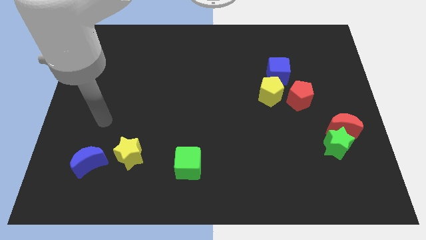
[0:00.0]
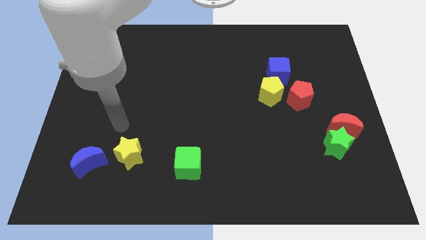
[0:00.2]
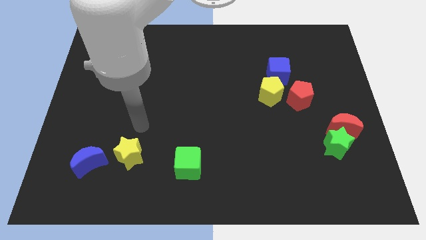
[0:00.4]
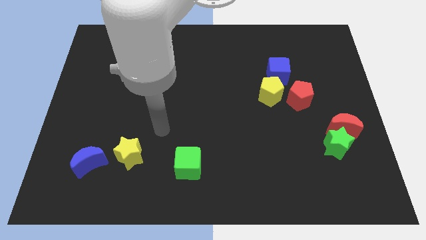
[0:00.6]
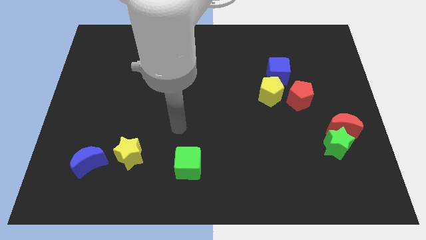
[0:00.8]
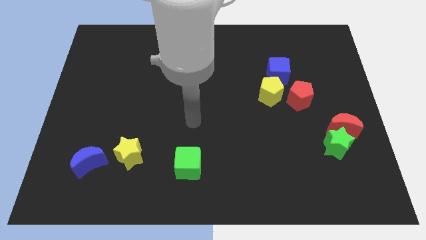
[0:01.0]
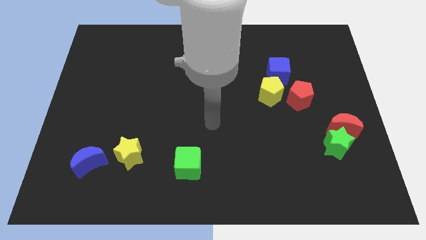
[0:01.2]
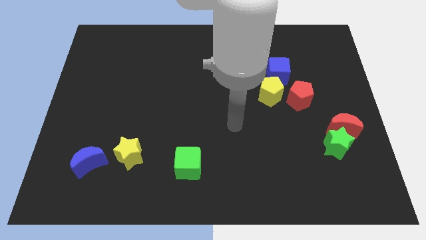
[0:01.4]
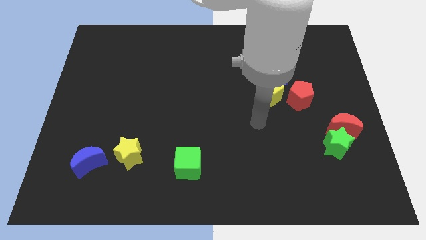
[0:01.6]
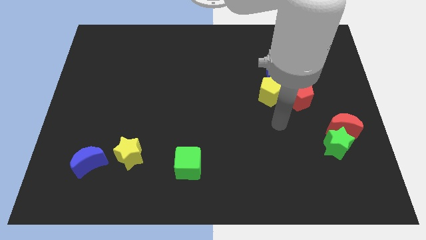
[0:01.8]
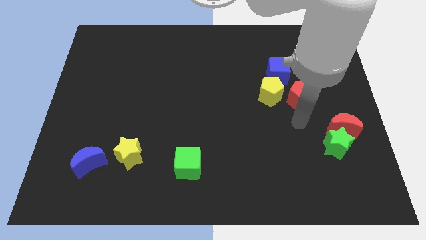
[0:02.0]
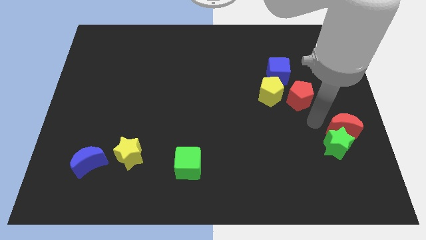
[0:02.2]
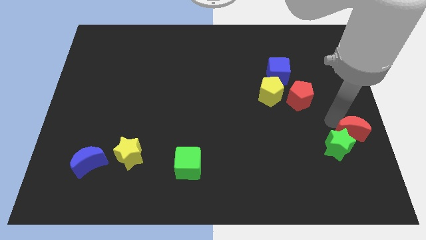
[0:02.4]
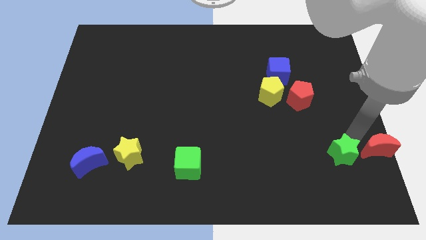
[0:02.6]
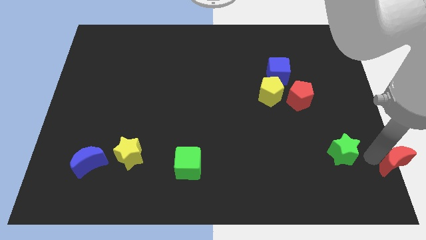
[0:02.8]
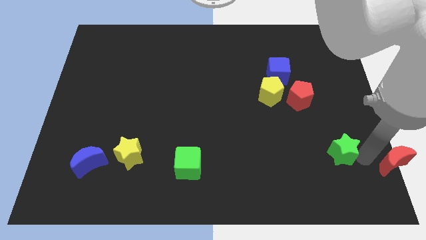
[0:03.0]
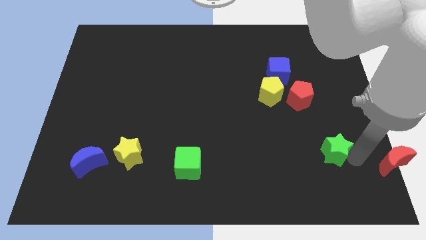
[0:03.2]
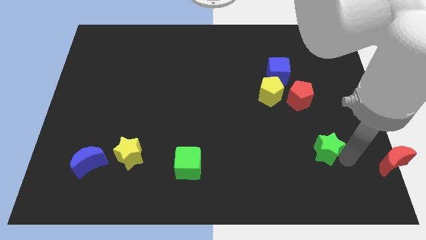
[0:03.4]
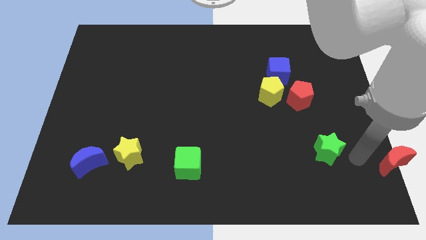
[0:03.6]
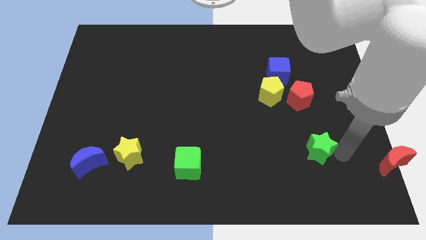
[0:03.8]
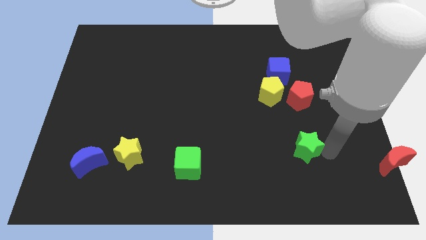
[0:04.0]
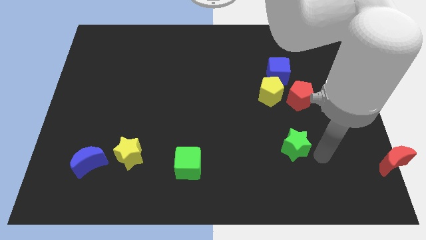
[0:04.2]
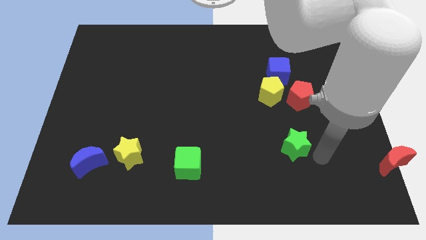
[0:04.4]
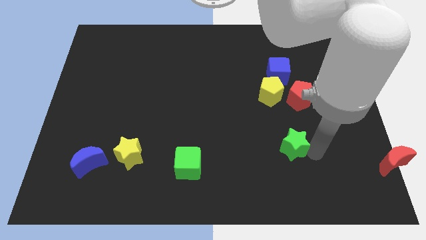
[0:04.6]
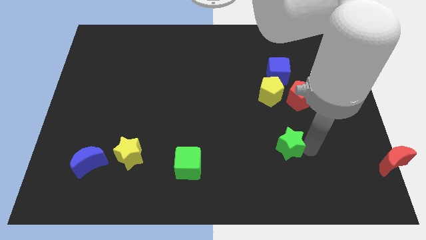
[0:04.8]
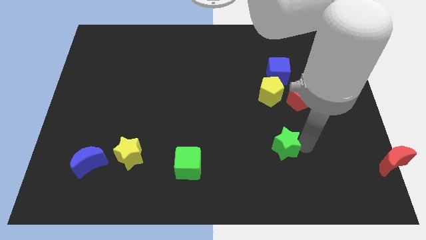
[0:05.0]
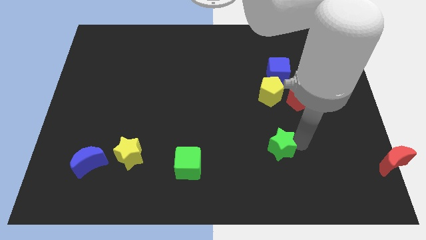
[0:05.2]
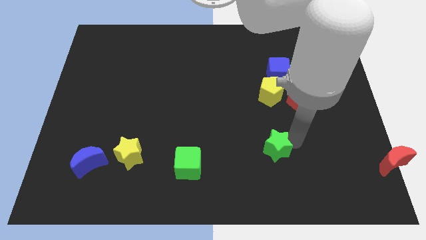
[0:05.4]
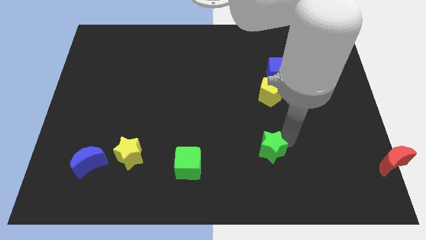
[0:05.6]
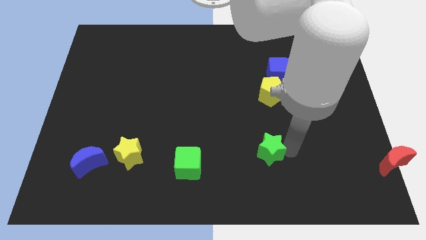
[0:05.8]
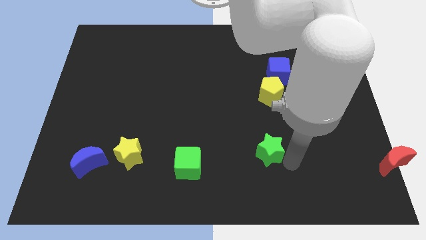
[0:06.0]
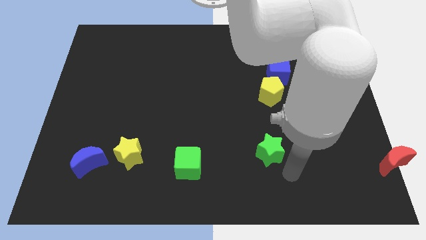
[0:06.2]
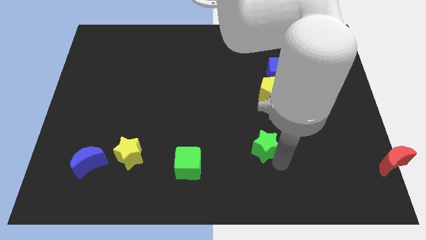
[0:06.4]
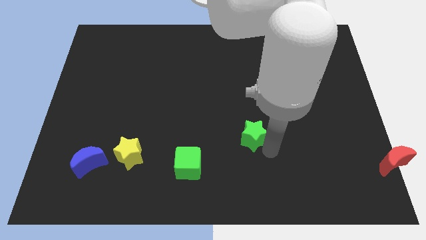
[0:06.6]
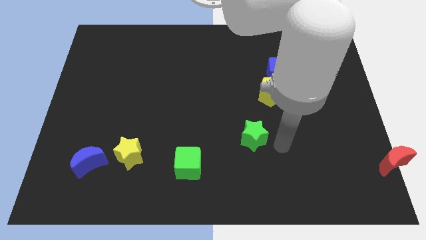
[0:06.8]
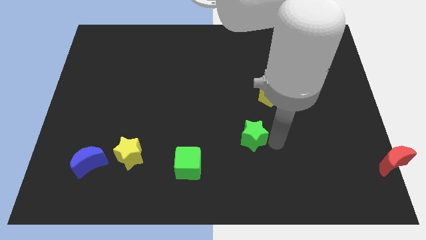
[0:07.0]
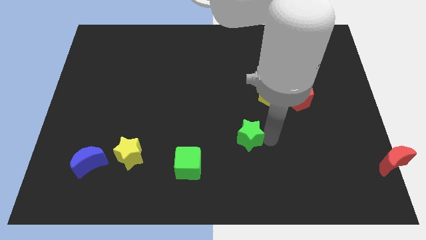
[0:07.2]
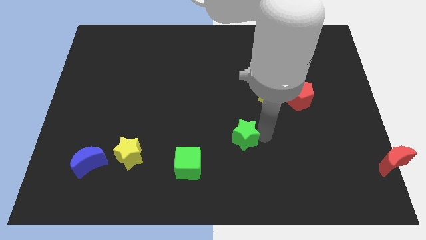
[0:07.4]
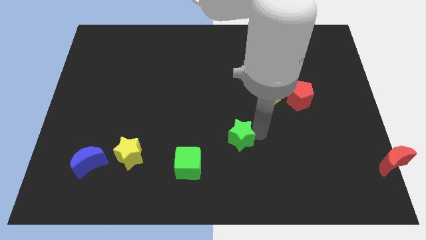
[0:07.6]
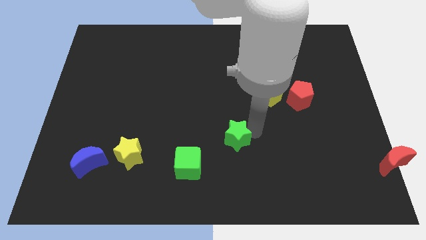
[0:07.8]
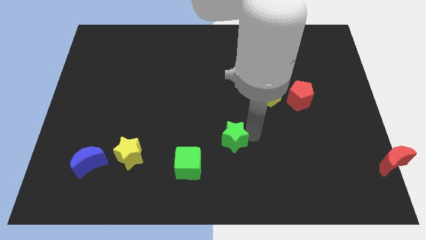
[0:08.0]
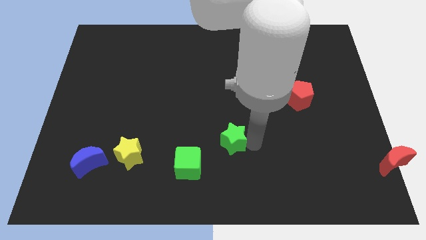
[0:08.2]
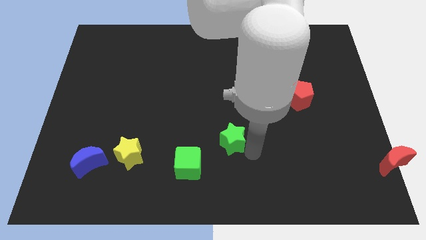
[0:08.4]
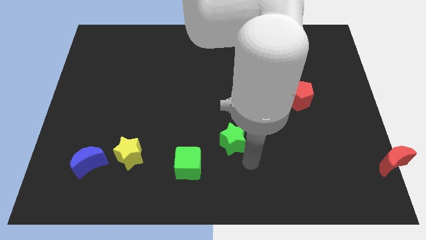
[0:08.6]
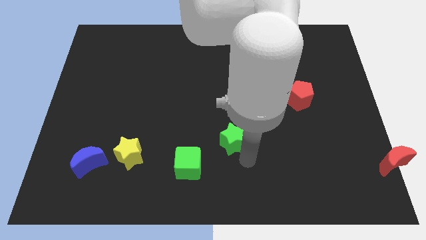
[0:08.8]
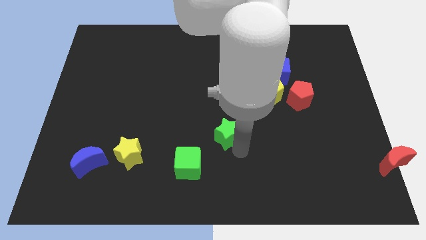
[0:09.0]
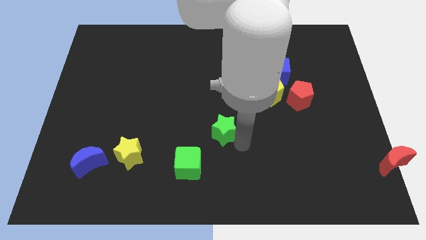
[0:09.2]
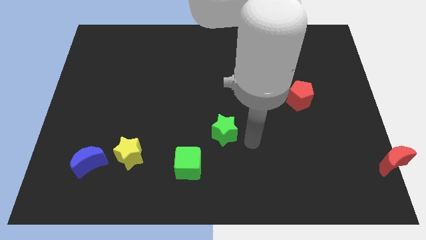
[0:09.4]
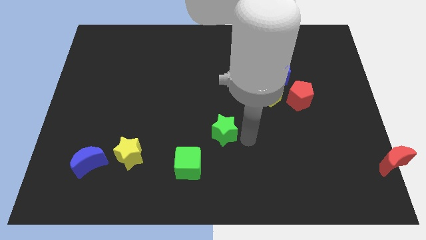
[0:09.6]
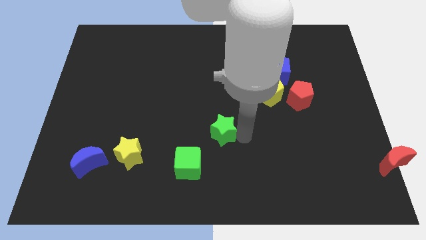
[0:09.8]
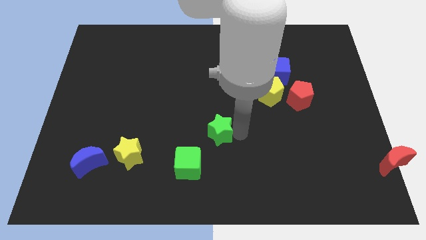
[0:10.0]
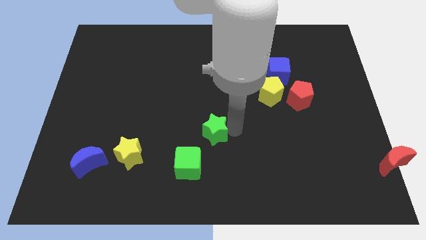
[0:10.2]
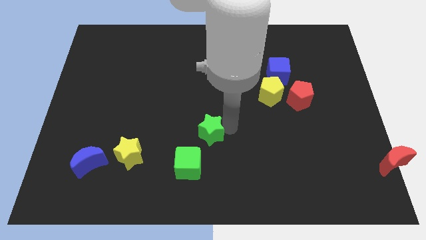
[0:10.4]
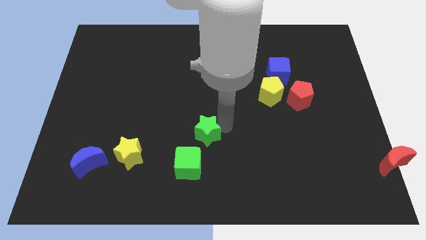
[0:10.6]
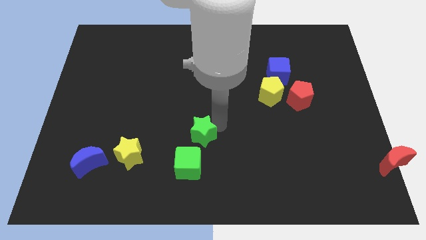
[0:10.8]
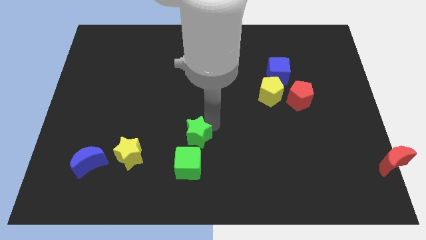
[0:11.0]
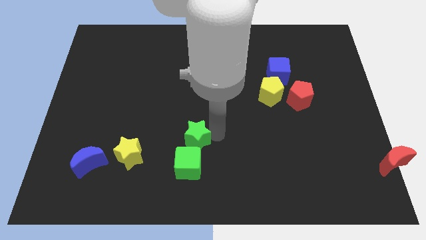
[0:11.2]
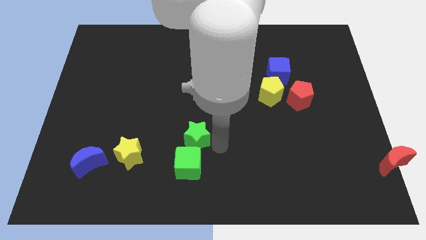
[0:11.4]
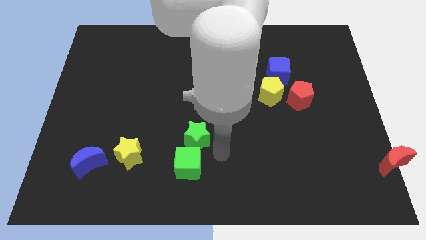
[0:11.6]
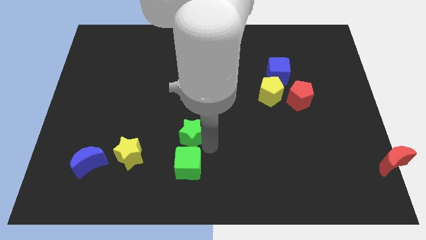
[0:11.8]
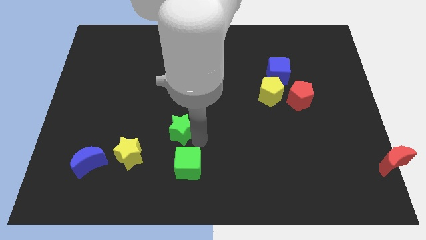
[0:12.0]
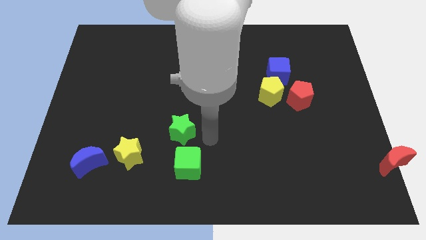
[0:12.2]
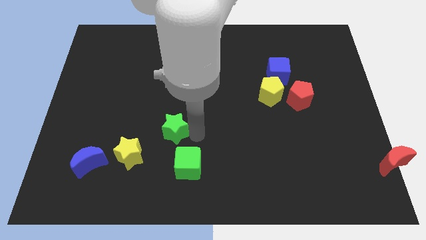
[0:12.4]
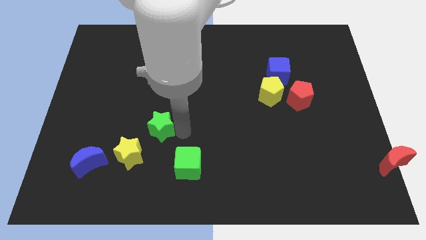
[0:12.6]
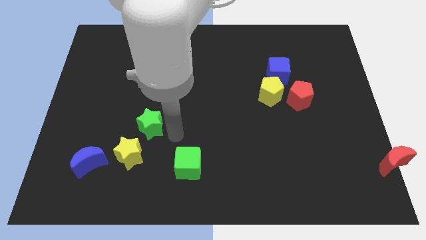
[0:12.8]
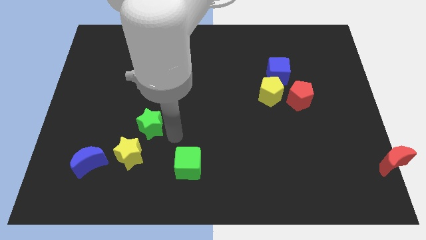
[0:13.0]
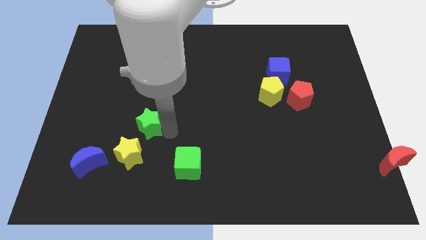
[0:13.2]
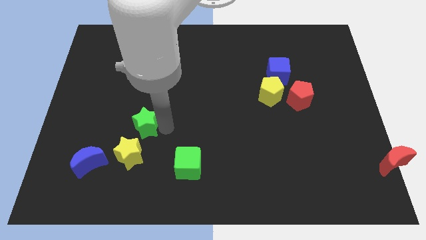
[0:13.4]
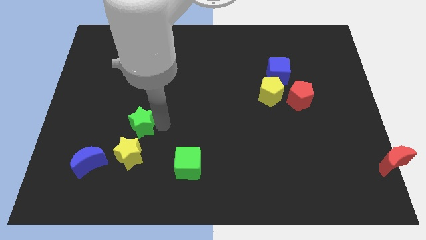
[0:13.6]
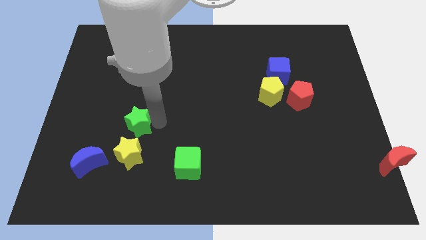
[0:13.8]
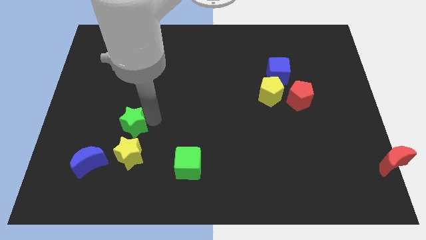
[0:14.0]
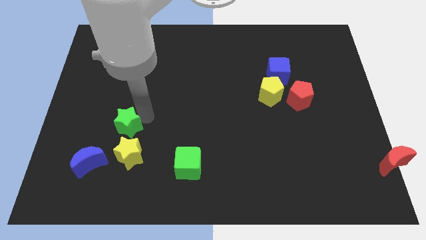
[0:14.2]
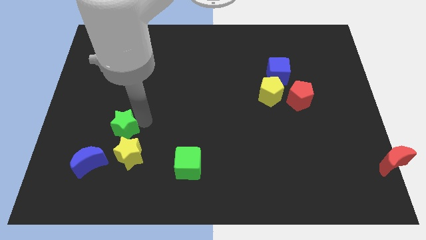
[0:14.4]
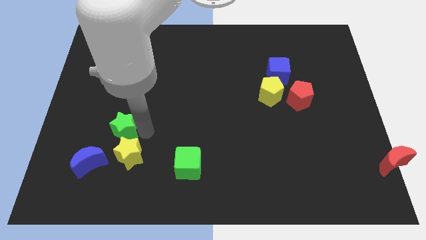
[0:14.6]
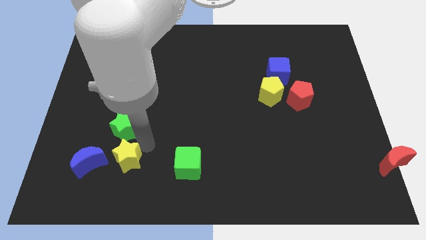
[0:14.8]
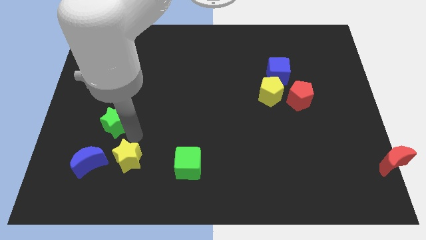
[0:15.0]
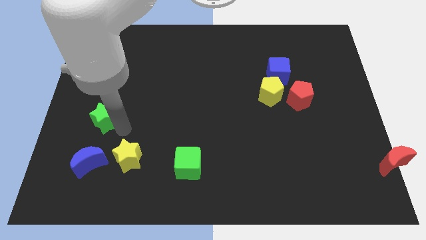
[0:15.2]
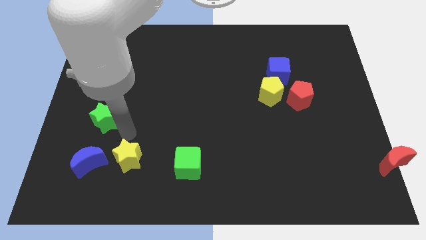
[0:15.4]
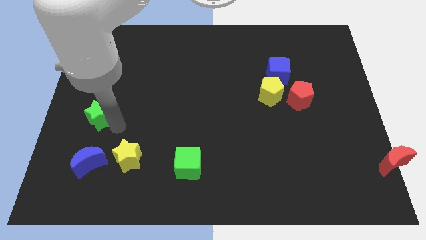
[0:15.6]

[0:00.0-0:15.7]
push the green star to the center left
